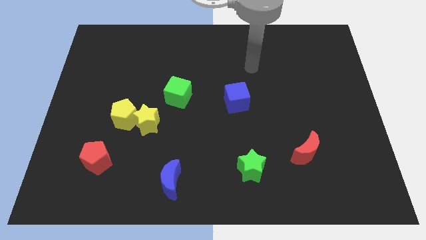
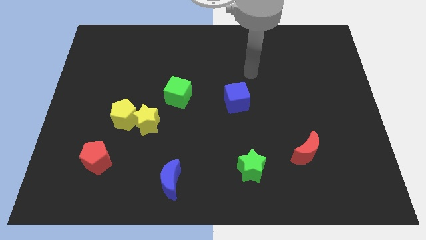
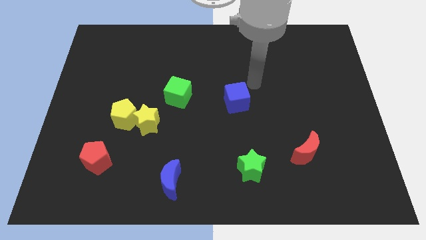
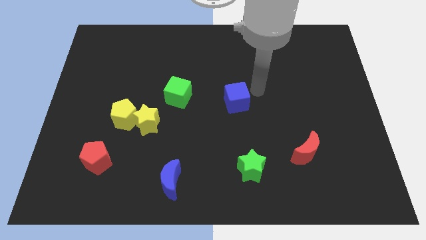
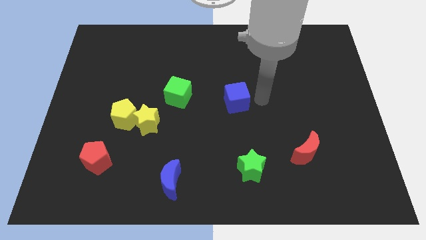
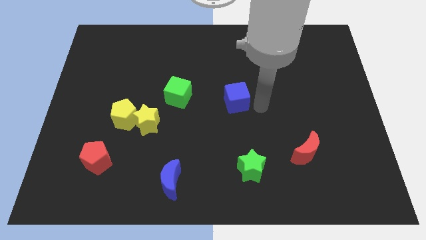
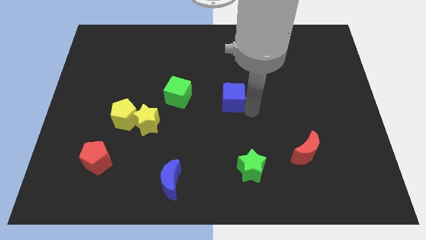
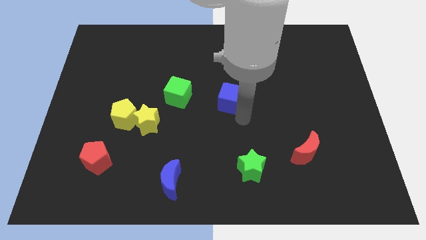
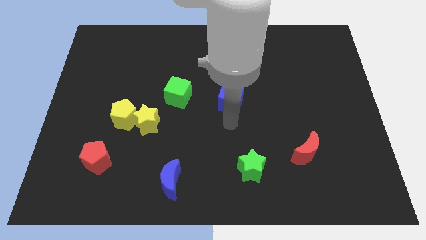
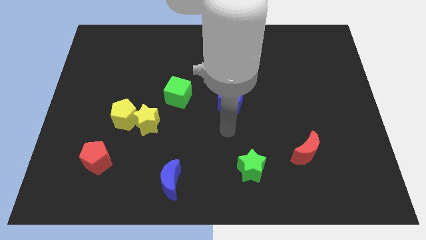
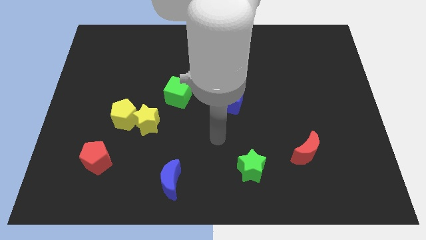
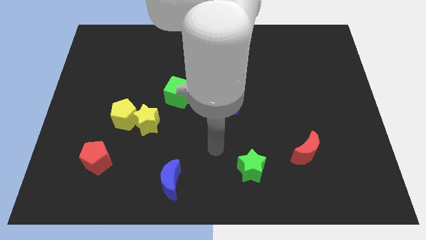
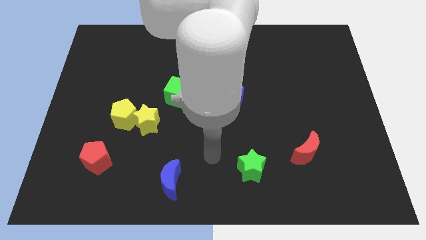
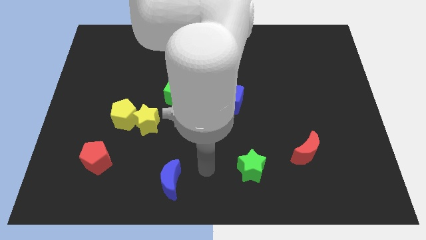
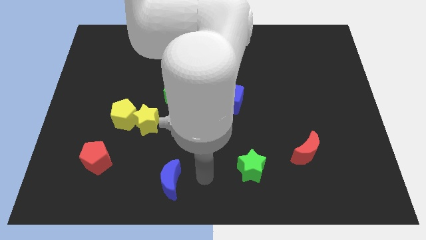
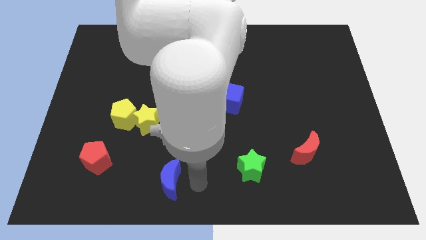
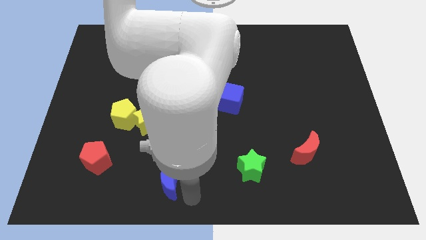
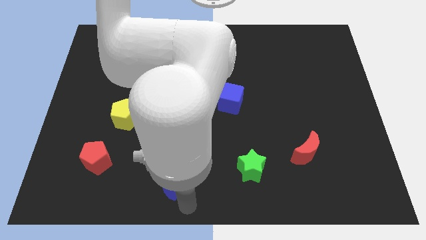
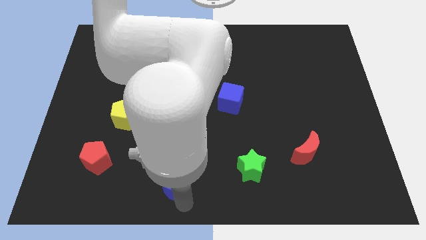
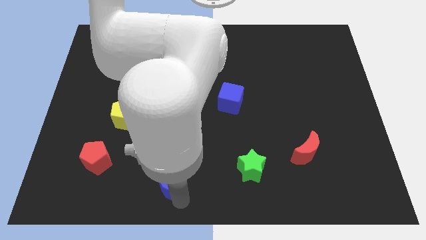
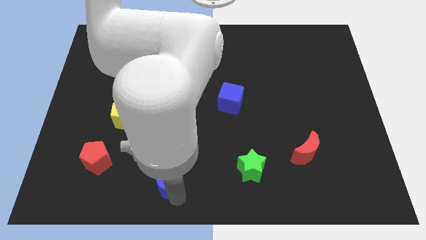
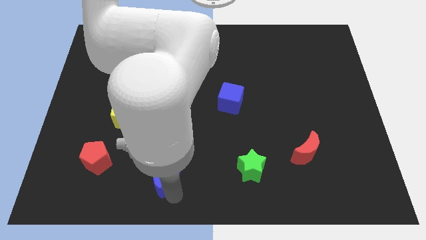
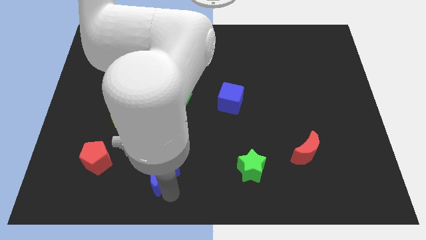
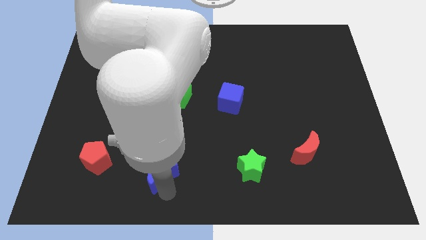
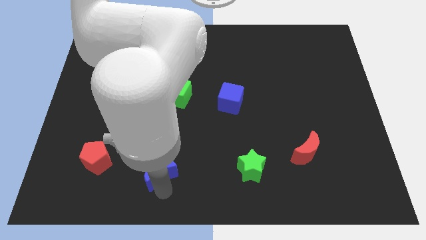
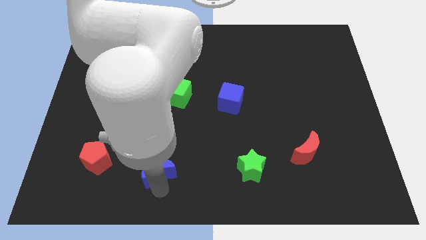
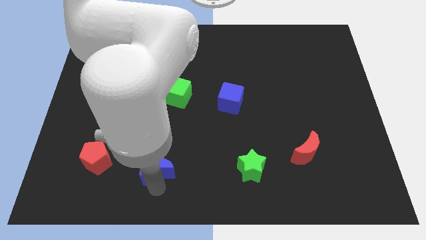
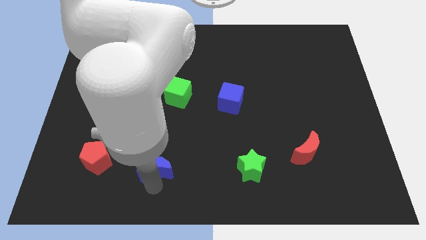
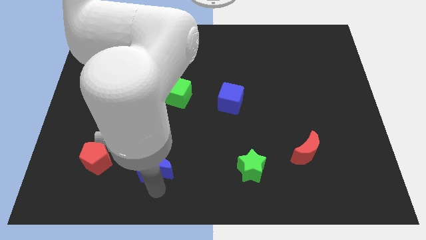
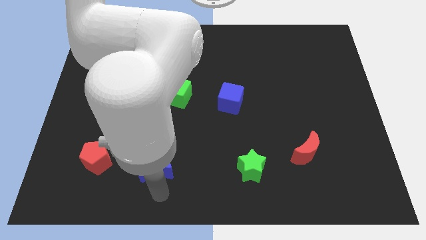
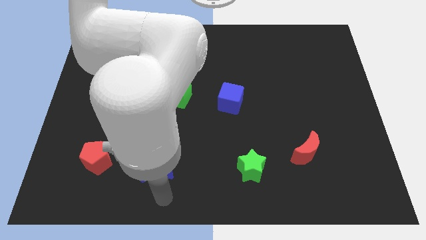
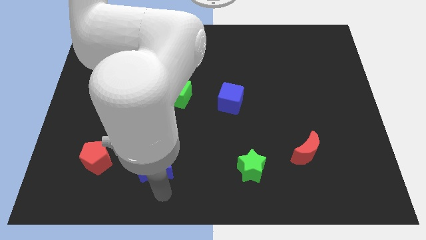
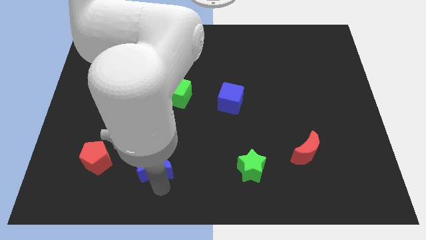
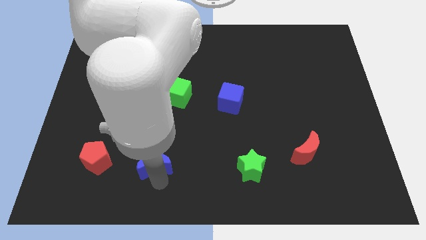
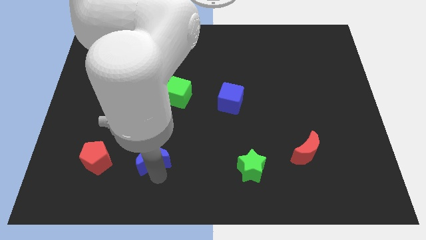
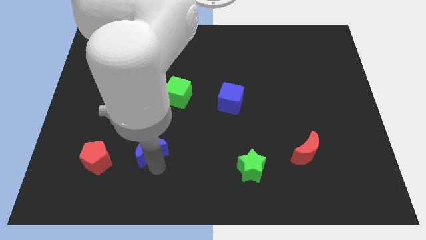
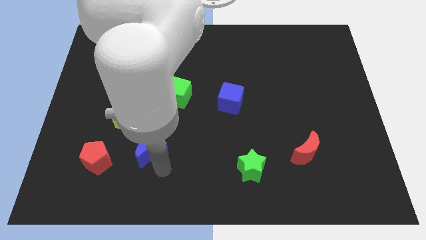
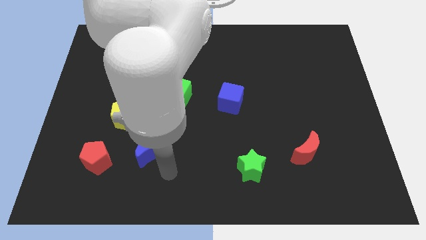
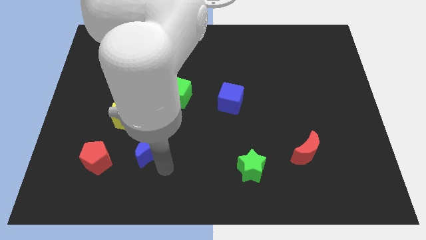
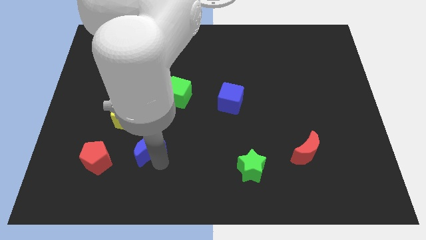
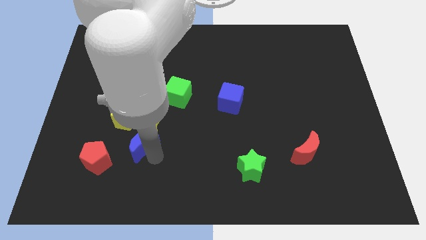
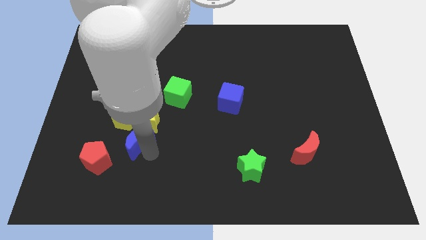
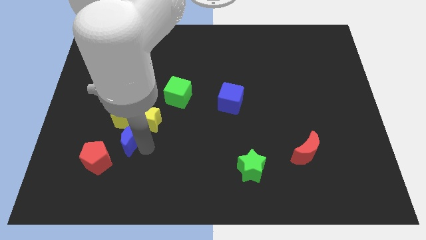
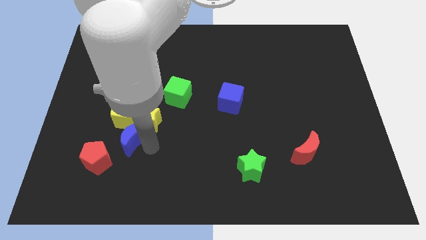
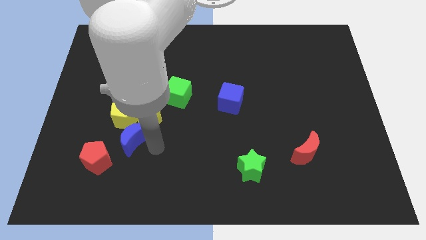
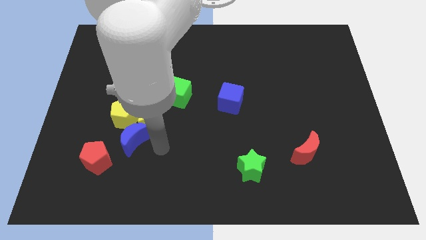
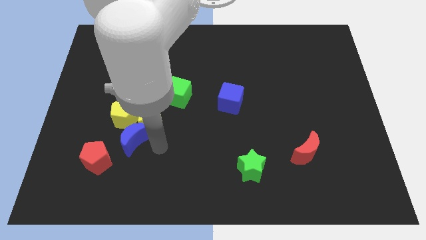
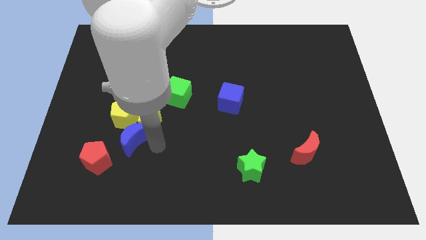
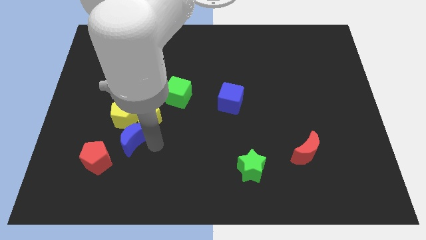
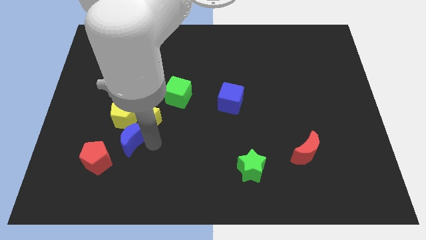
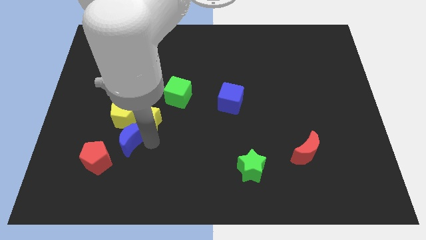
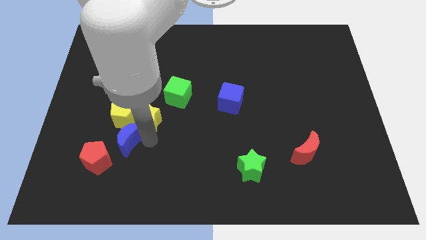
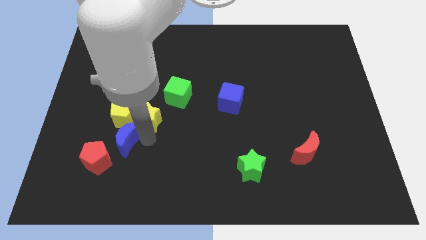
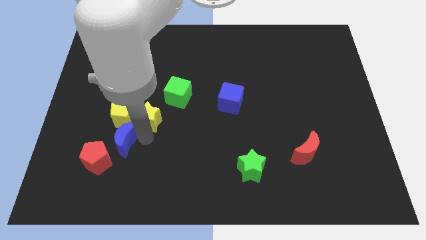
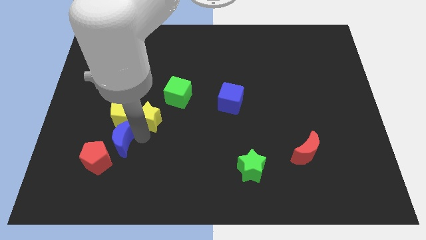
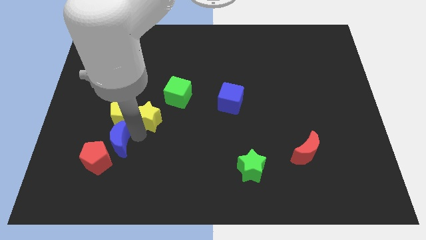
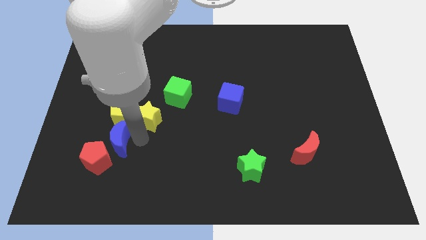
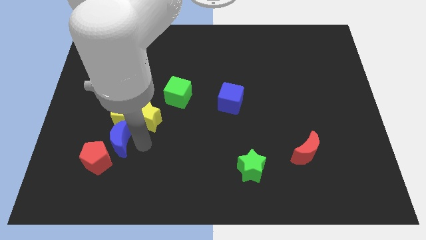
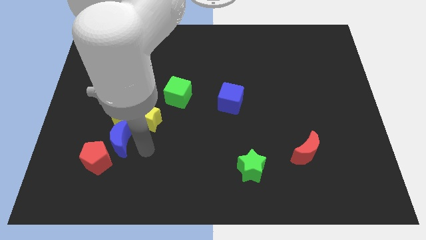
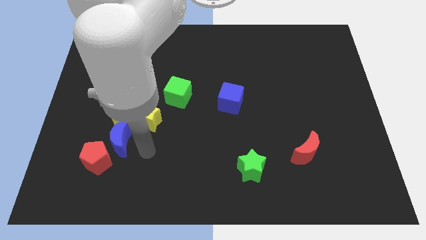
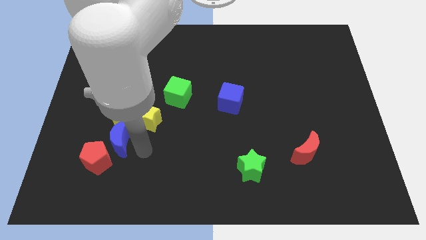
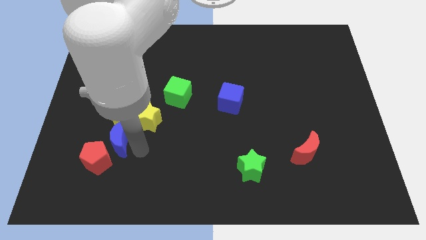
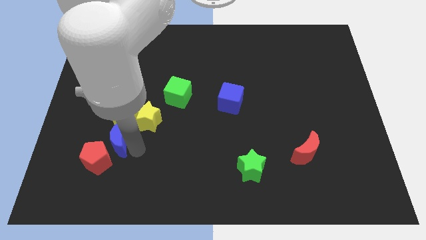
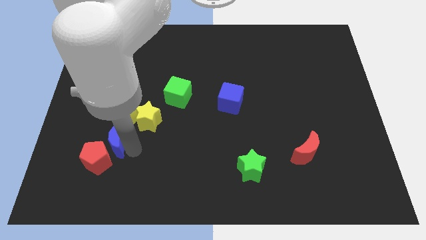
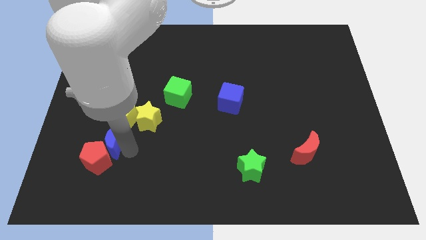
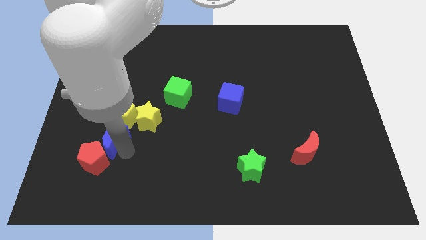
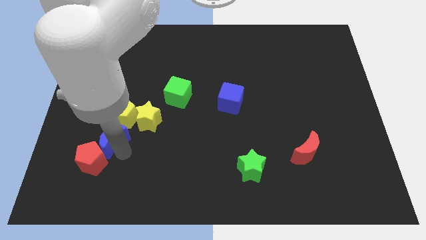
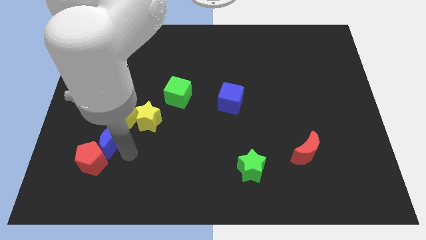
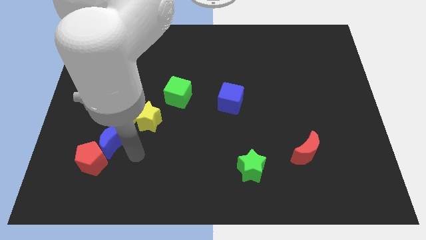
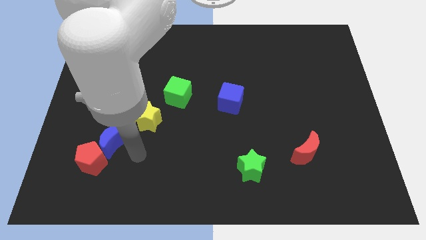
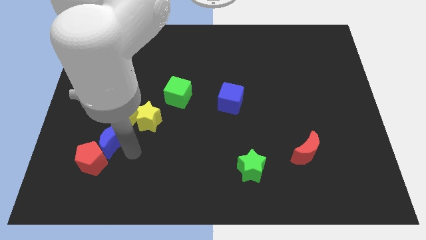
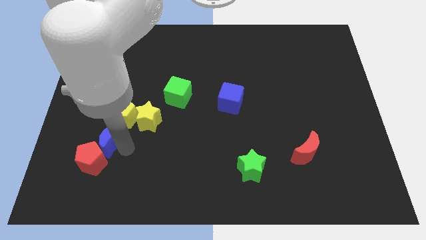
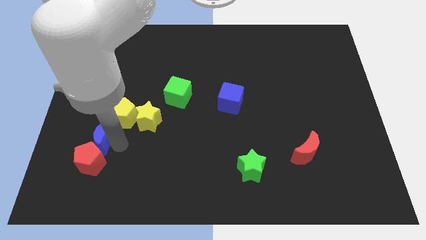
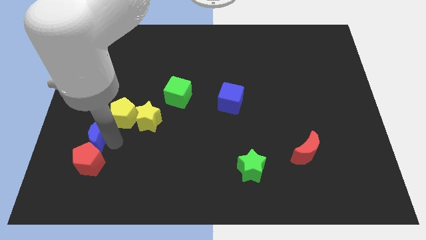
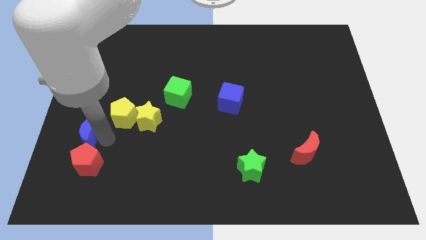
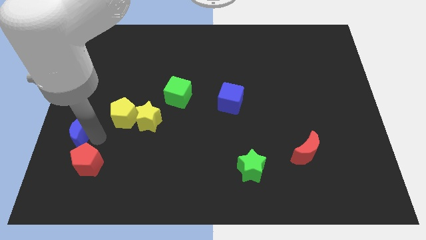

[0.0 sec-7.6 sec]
put the blue moon to the center left
